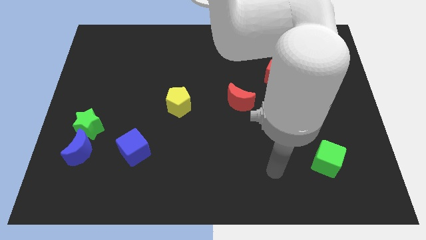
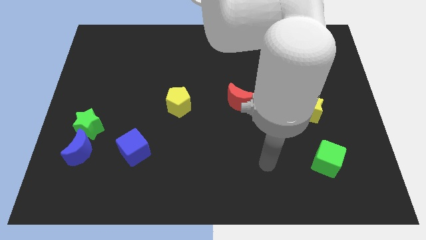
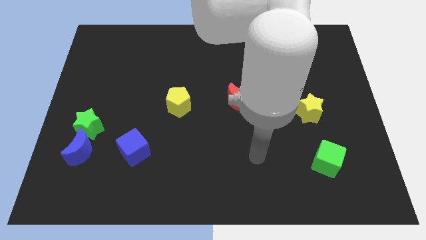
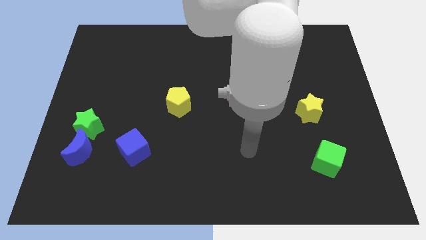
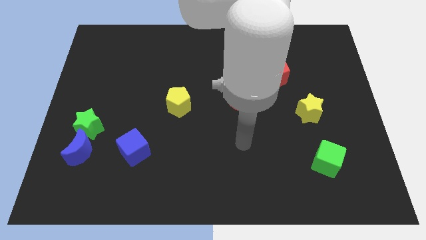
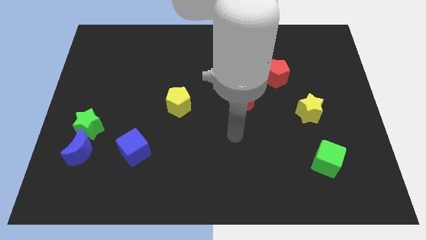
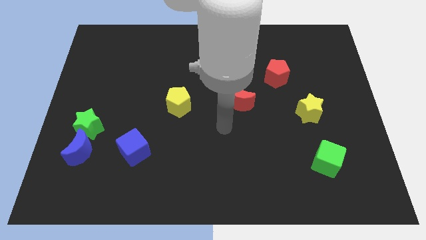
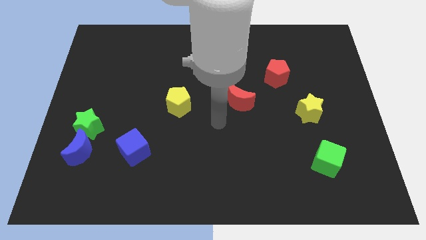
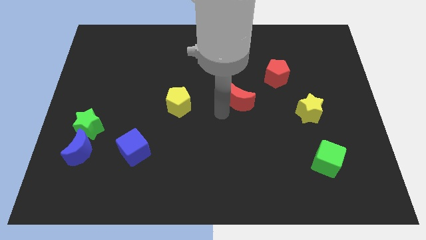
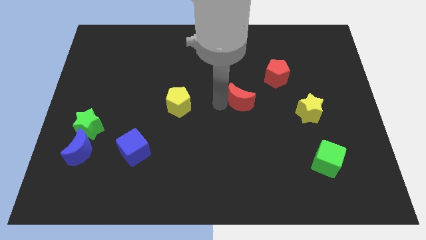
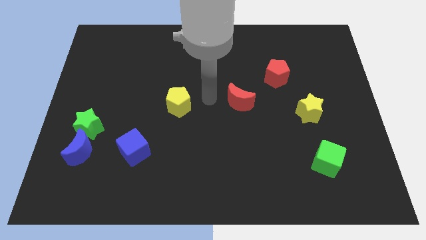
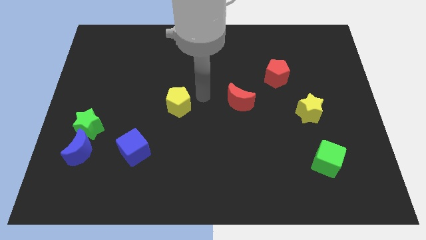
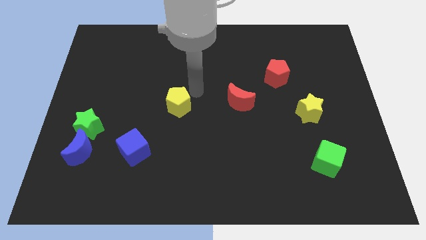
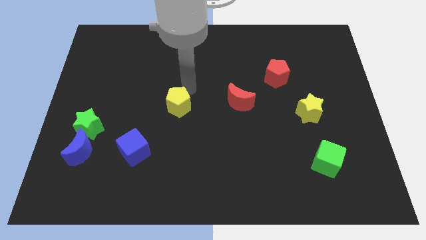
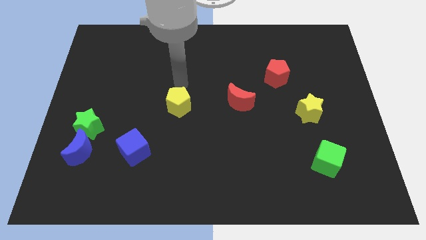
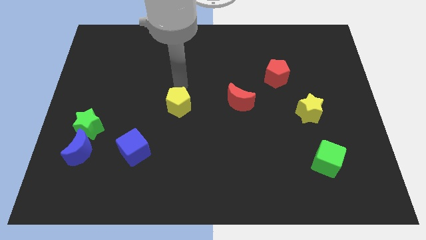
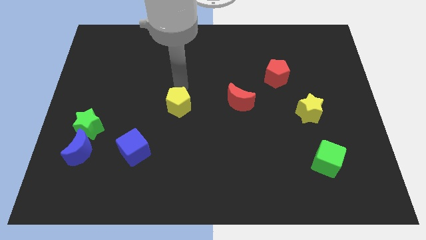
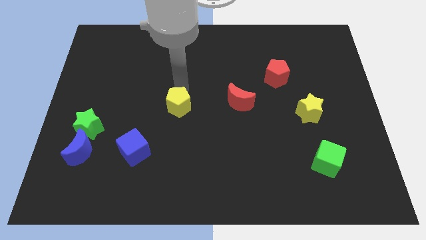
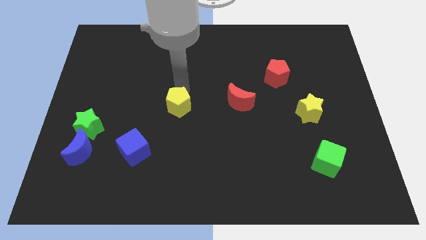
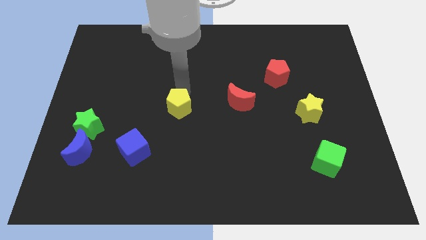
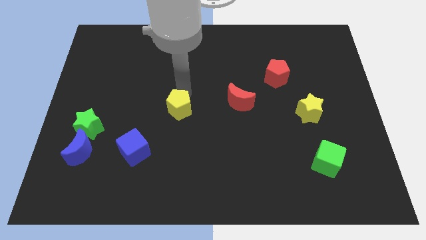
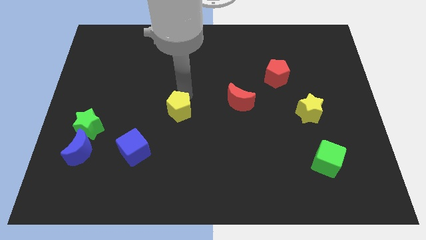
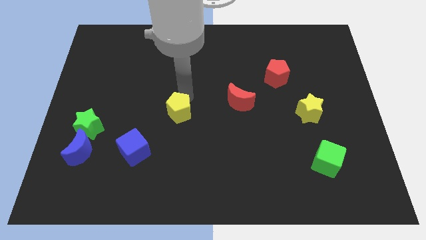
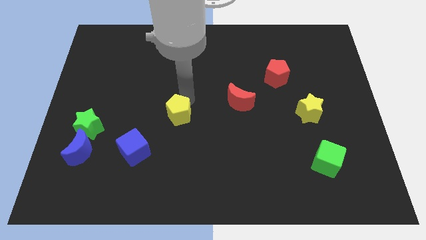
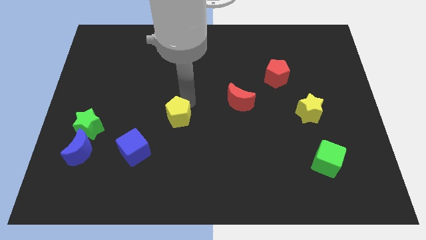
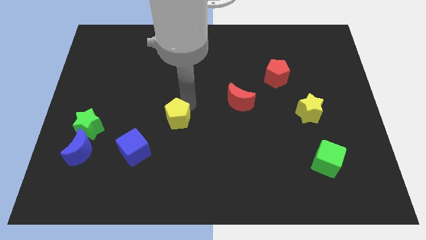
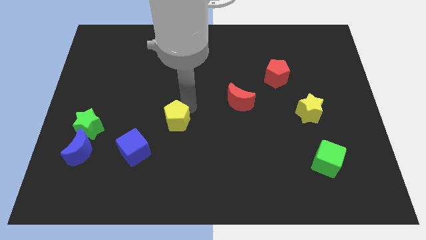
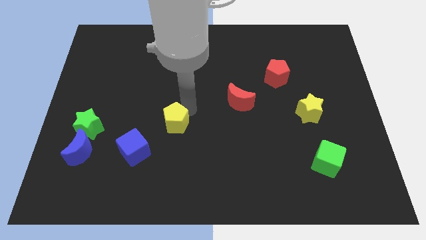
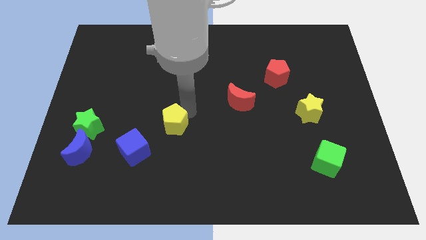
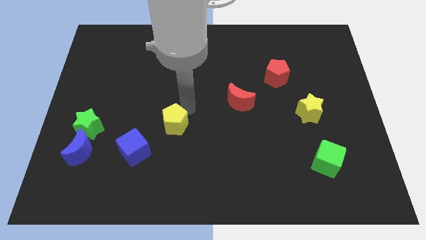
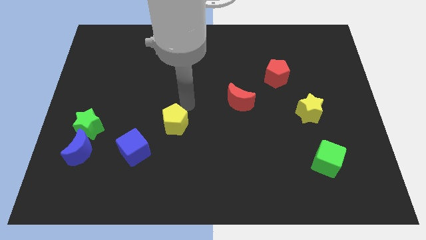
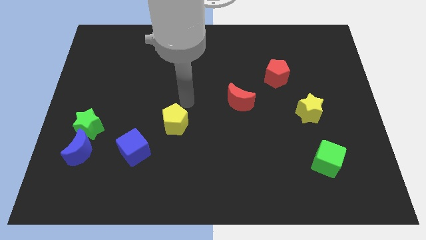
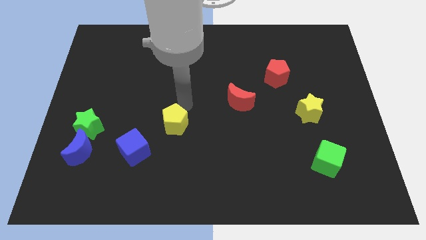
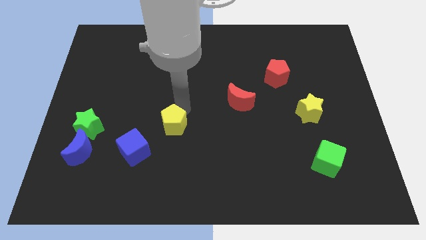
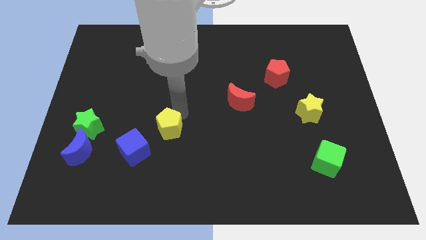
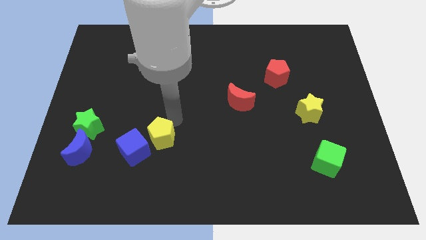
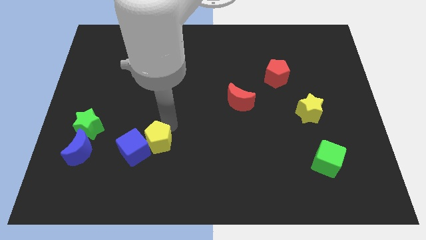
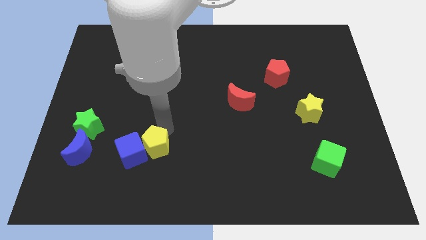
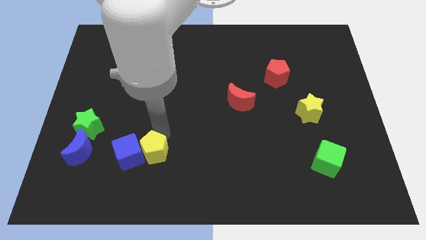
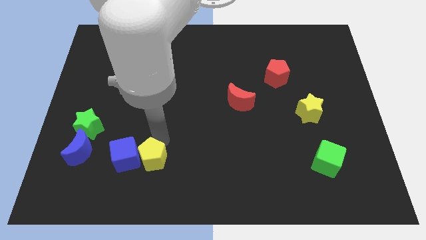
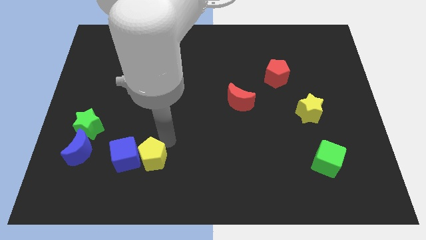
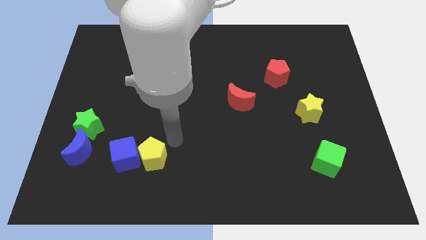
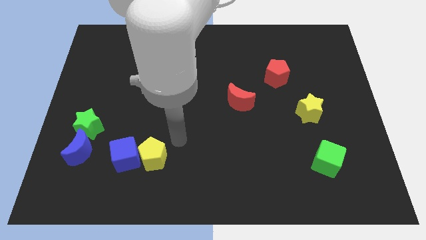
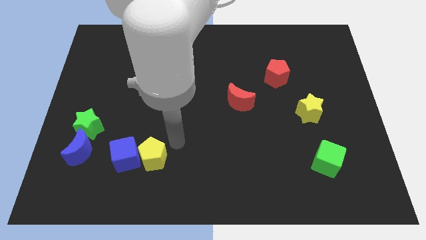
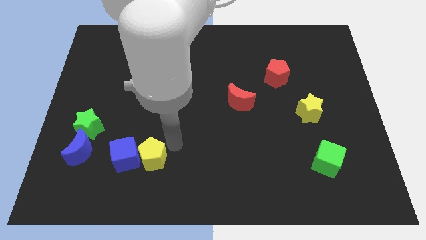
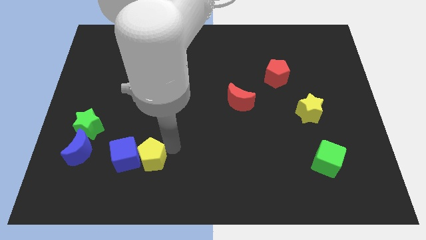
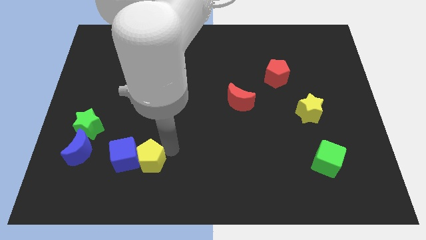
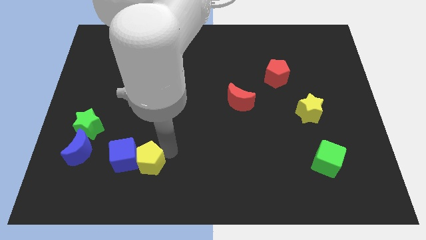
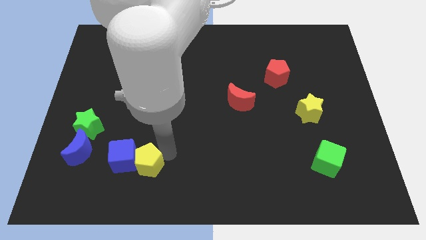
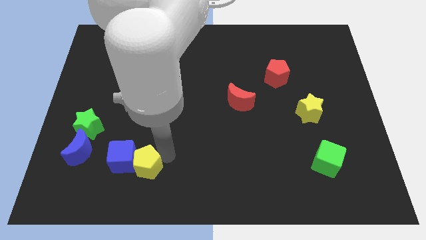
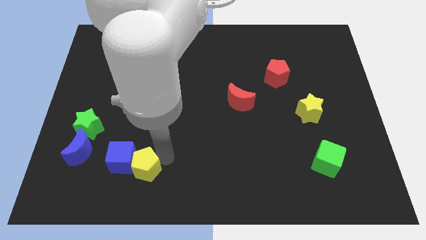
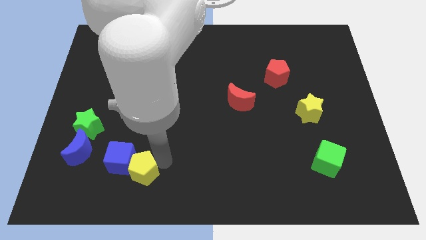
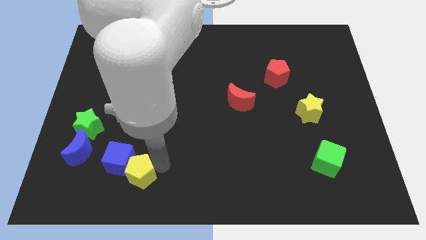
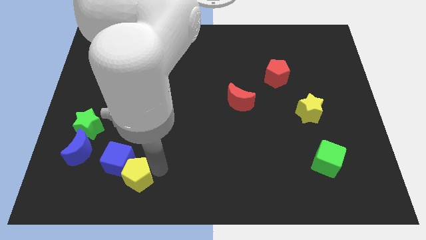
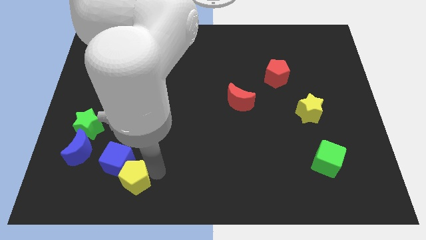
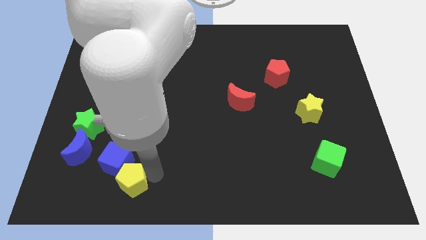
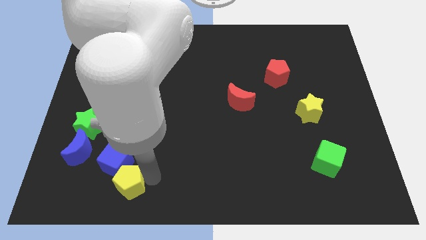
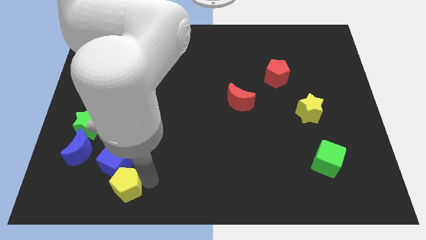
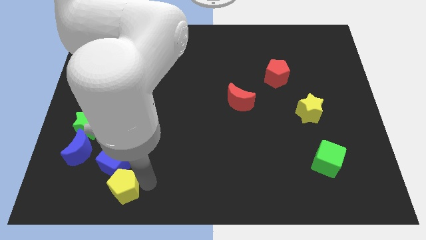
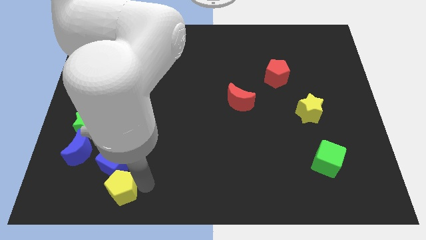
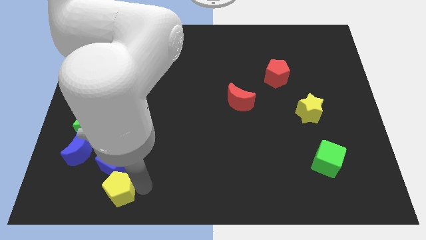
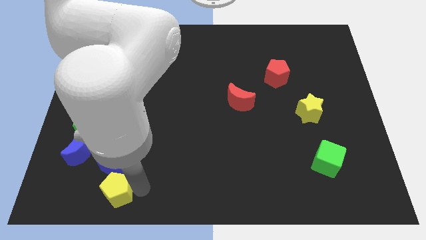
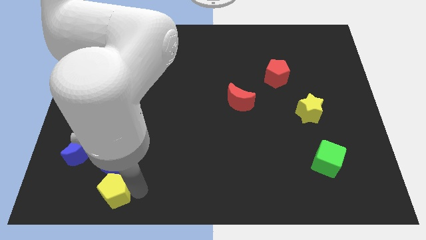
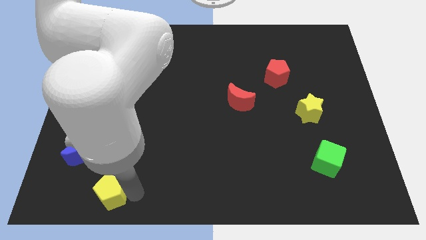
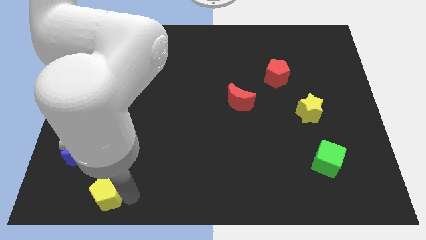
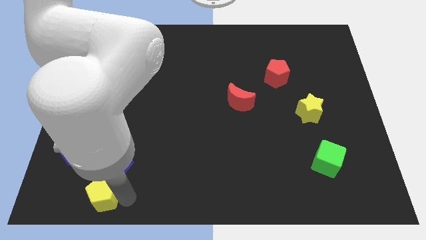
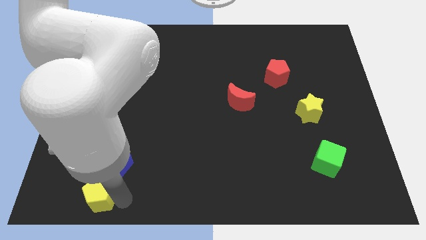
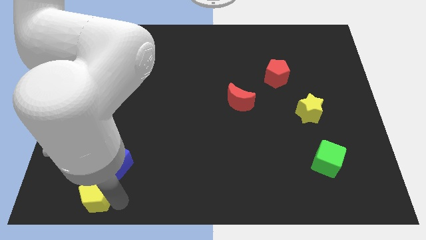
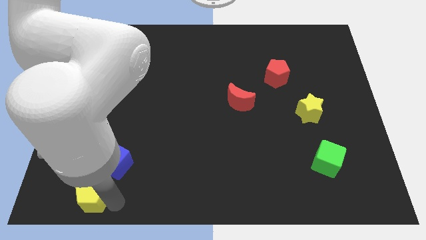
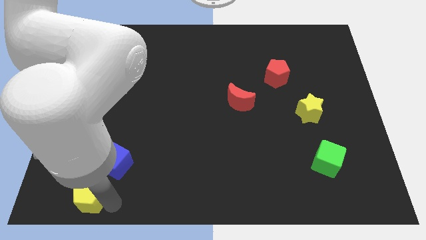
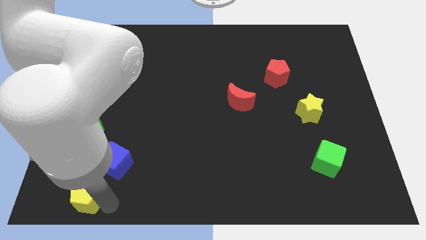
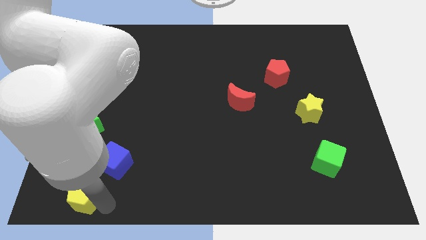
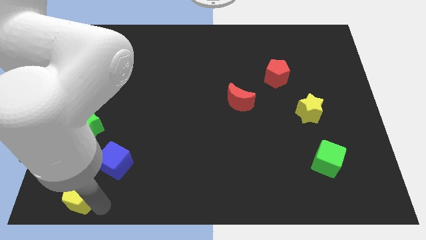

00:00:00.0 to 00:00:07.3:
push the yellow pentagon to the bottom left
